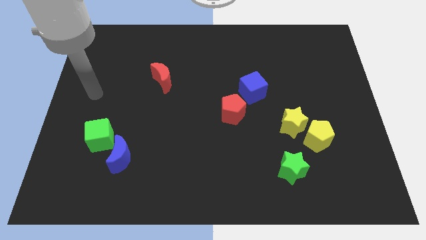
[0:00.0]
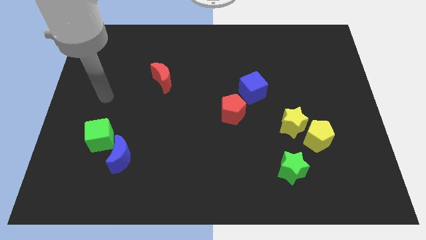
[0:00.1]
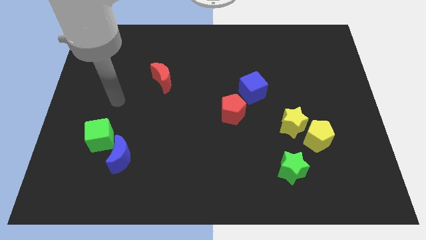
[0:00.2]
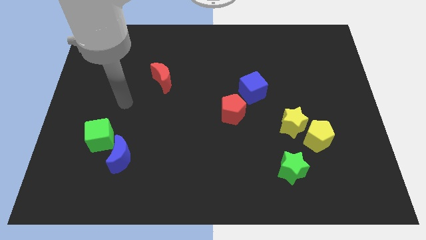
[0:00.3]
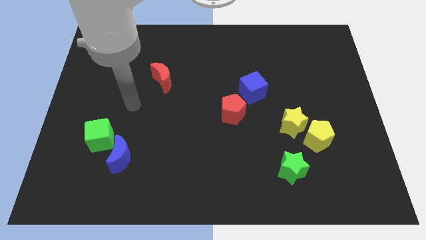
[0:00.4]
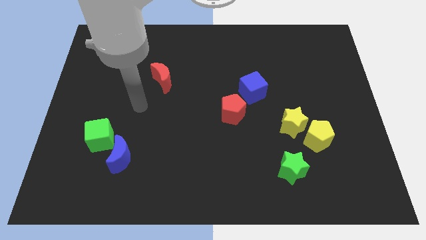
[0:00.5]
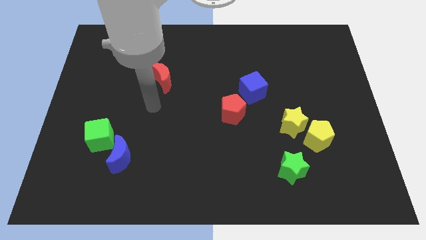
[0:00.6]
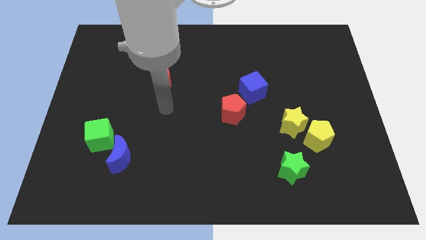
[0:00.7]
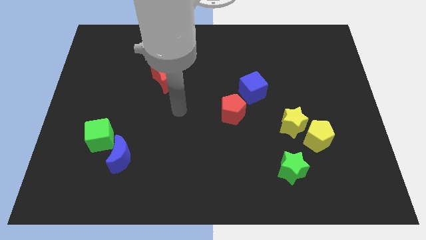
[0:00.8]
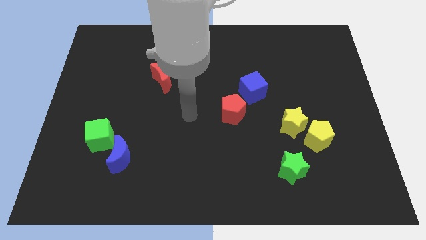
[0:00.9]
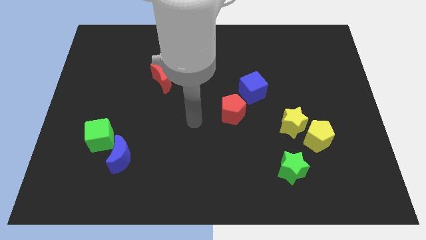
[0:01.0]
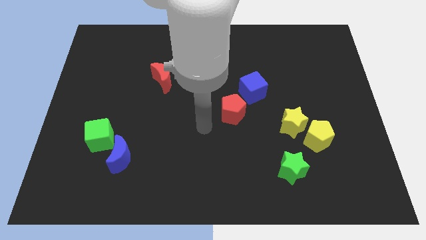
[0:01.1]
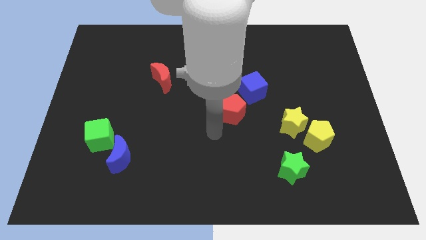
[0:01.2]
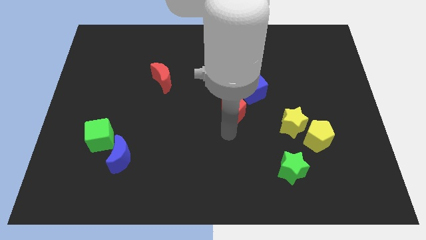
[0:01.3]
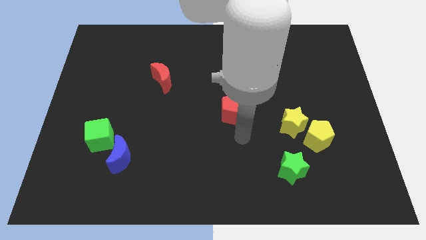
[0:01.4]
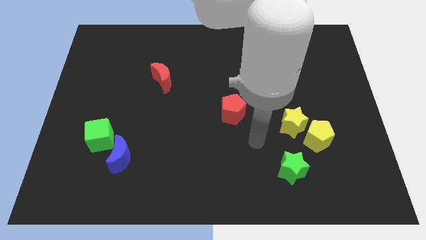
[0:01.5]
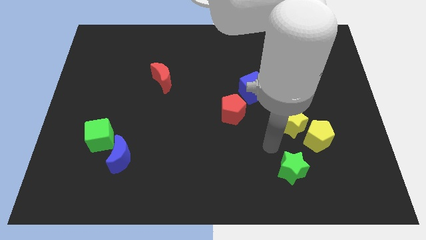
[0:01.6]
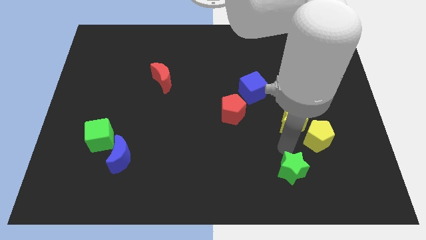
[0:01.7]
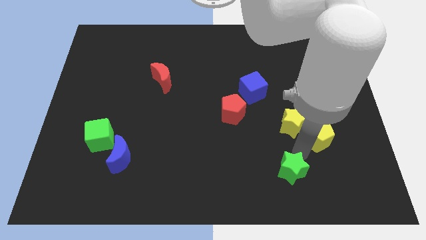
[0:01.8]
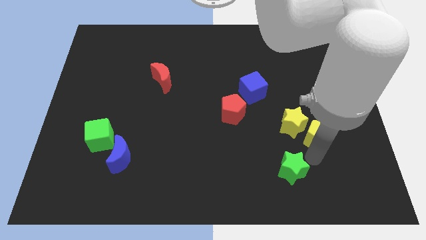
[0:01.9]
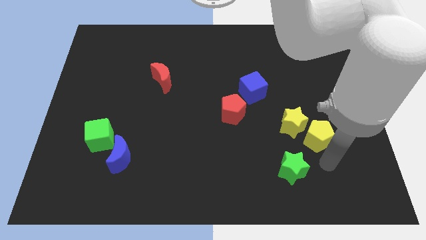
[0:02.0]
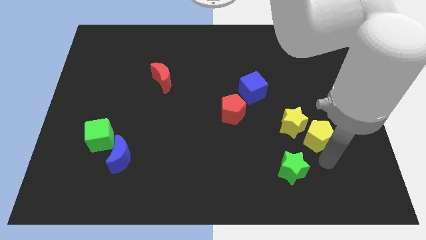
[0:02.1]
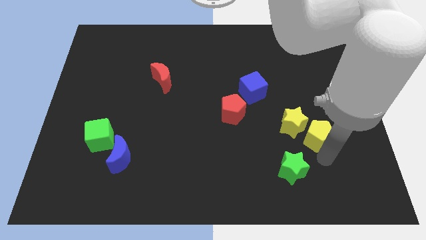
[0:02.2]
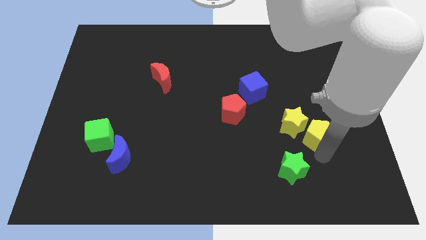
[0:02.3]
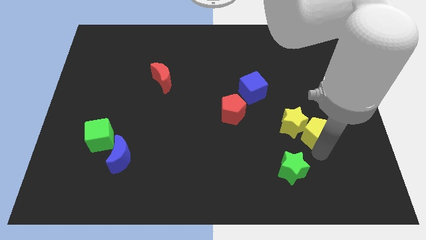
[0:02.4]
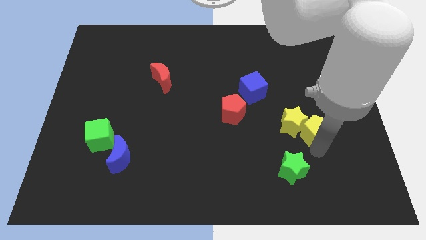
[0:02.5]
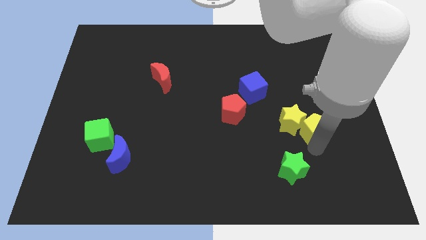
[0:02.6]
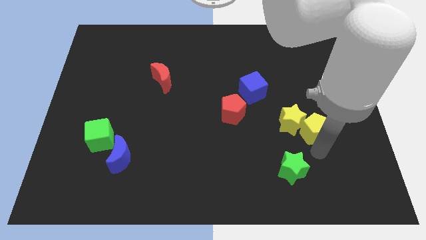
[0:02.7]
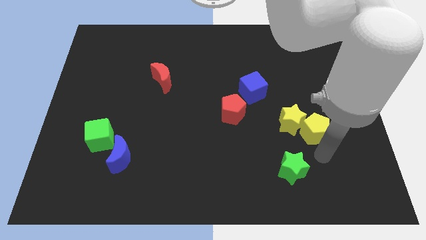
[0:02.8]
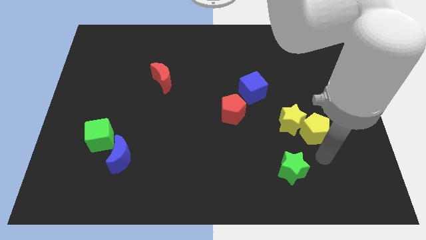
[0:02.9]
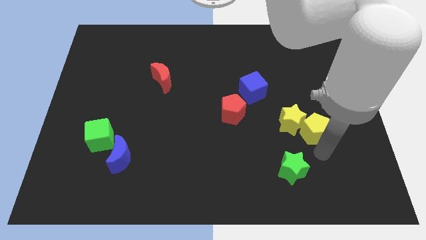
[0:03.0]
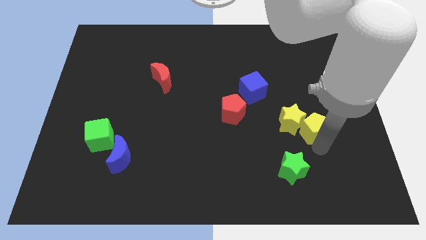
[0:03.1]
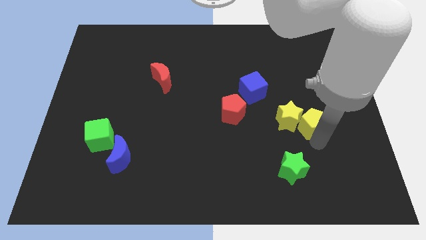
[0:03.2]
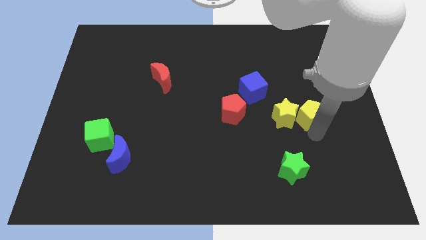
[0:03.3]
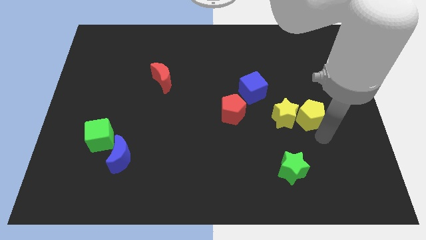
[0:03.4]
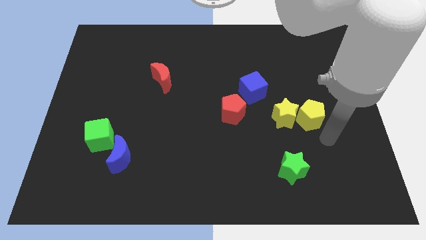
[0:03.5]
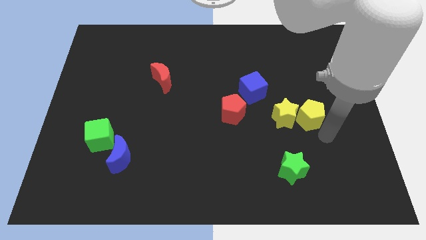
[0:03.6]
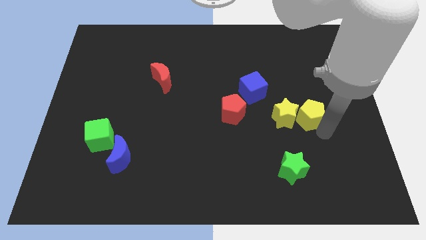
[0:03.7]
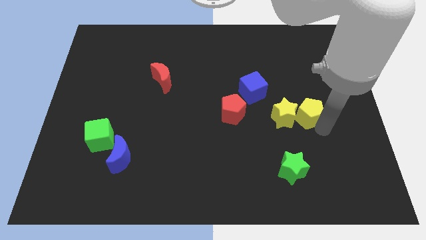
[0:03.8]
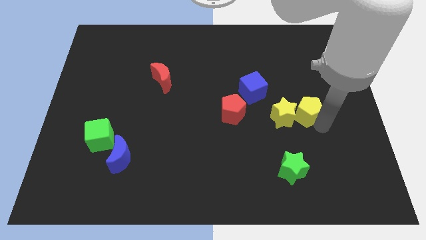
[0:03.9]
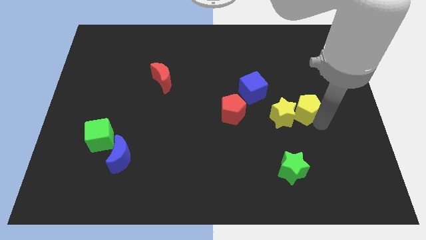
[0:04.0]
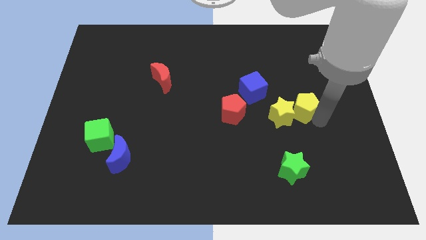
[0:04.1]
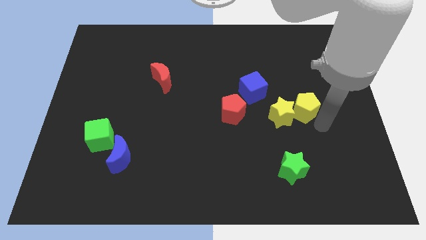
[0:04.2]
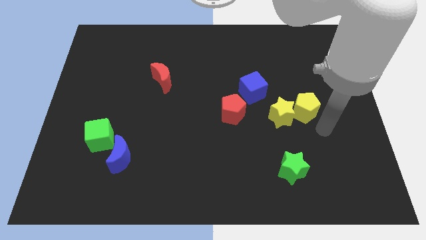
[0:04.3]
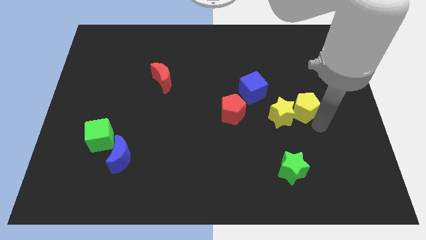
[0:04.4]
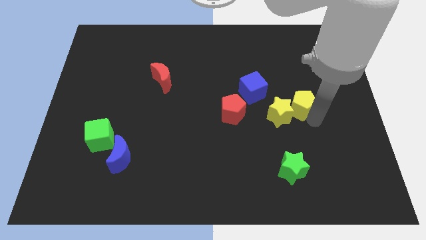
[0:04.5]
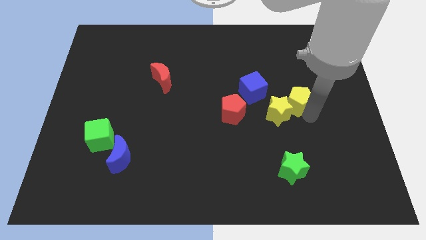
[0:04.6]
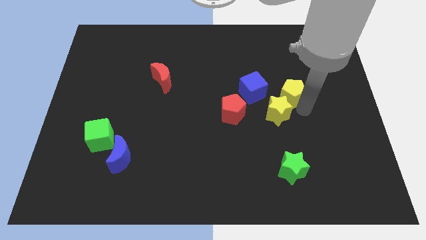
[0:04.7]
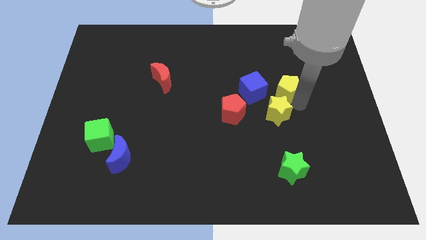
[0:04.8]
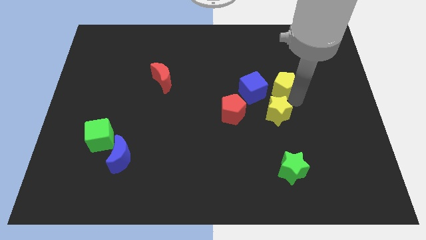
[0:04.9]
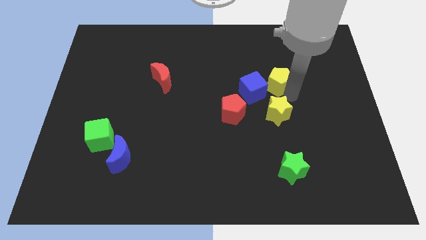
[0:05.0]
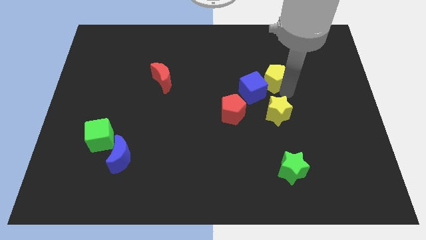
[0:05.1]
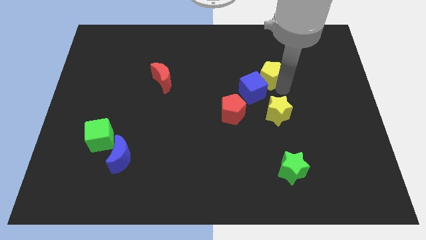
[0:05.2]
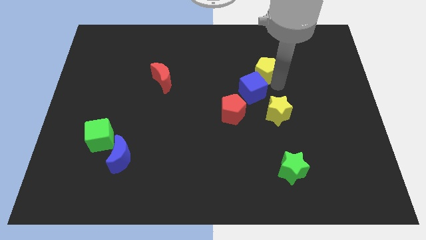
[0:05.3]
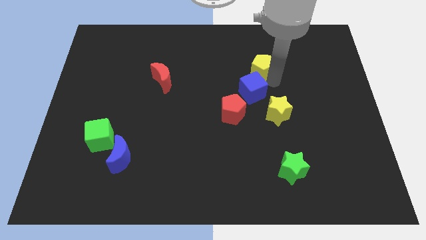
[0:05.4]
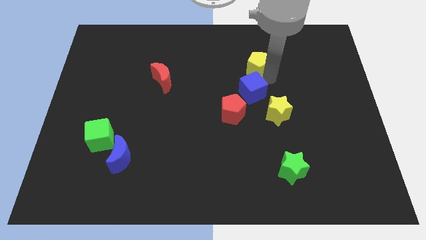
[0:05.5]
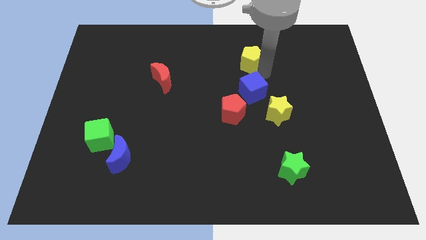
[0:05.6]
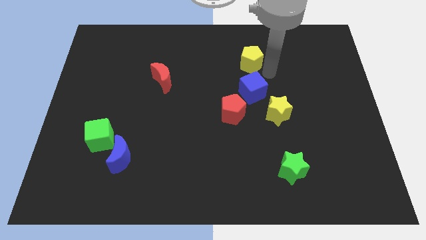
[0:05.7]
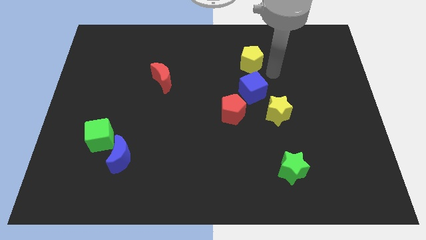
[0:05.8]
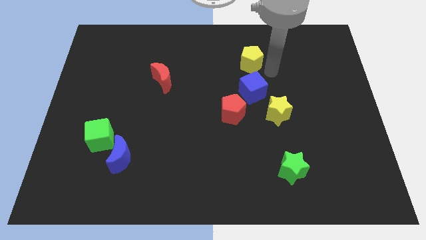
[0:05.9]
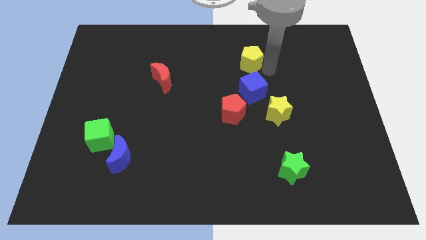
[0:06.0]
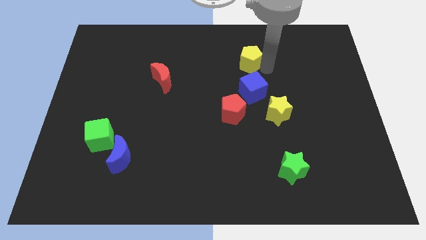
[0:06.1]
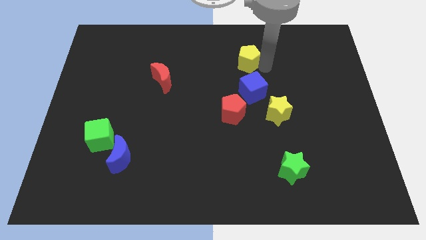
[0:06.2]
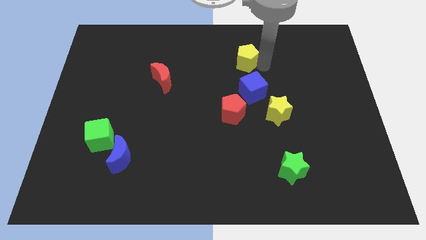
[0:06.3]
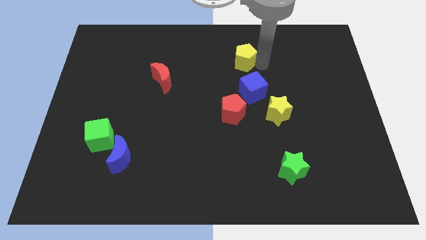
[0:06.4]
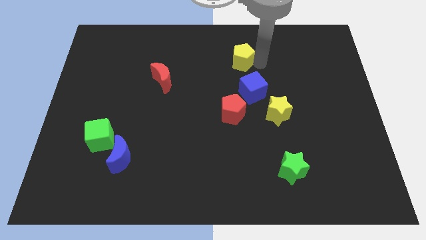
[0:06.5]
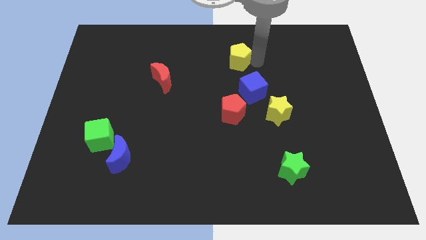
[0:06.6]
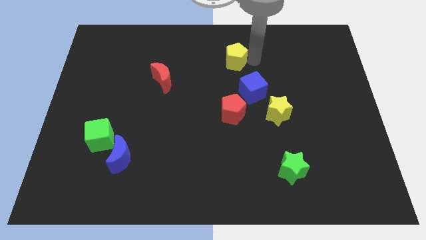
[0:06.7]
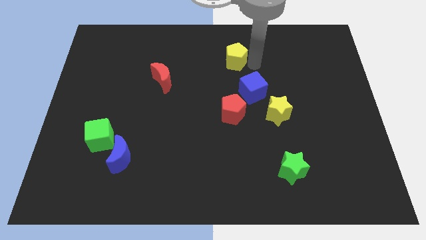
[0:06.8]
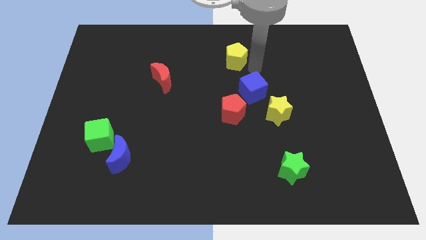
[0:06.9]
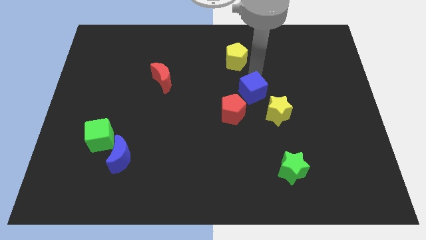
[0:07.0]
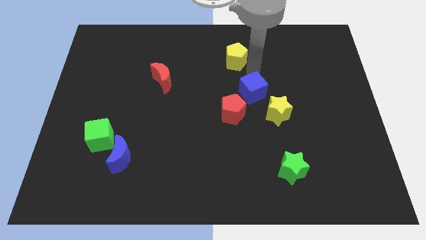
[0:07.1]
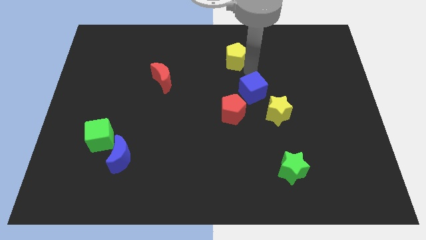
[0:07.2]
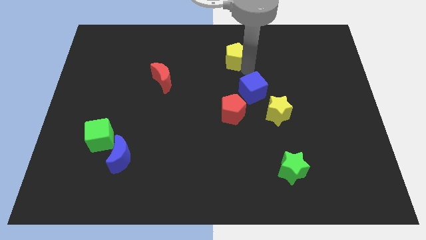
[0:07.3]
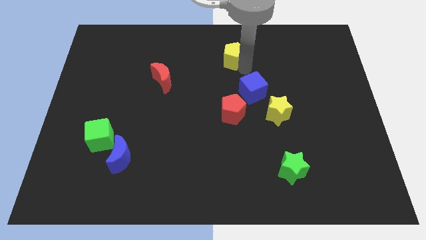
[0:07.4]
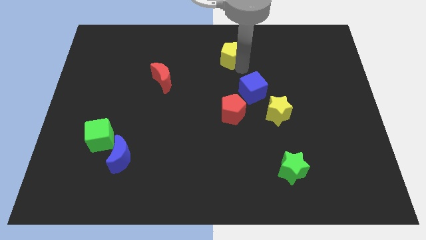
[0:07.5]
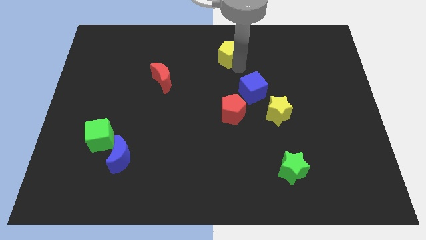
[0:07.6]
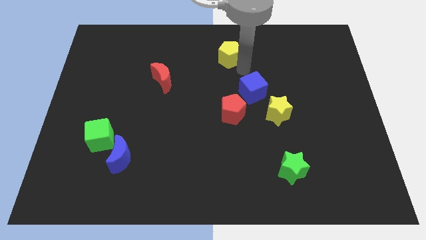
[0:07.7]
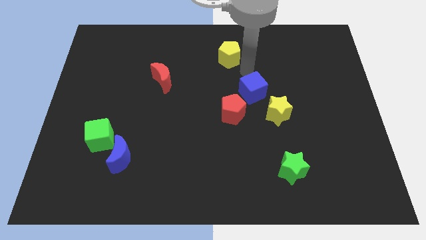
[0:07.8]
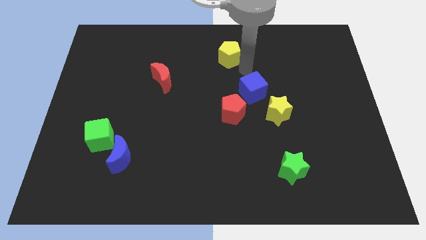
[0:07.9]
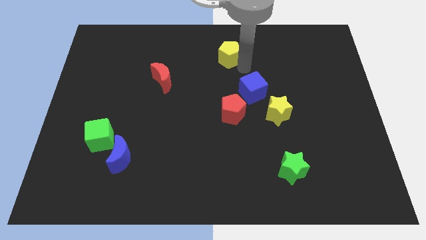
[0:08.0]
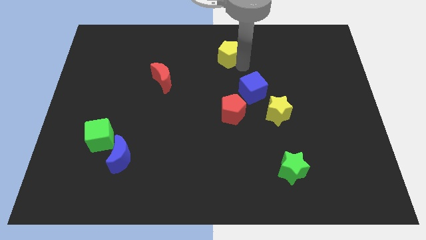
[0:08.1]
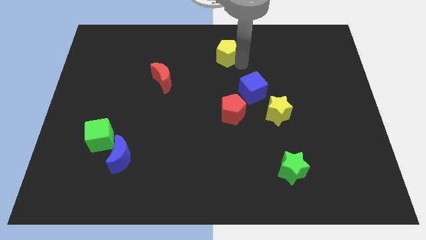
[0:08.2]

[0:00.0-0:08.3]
push the yellow pentagon to the towards your base
